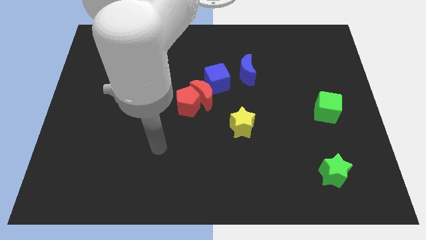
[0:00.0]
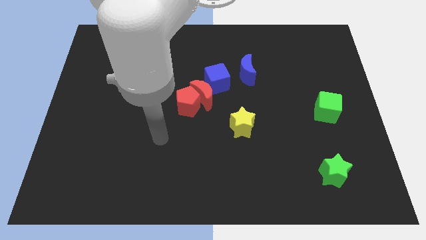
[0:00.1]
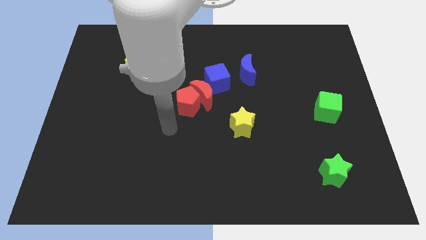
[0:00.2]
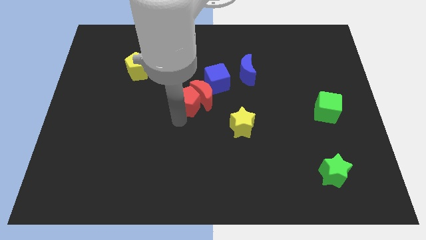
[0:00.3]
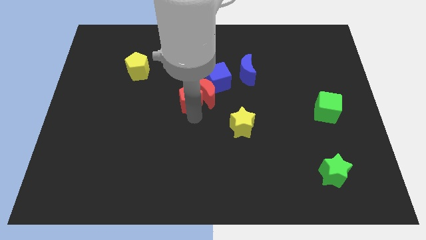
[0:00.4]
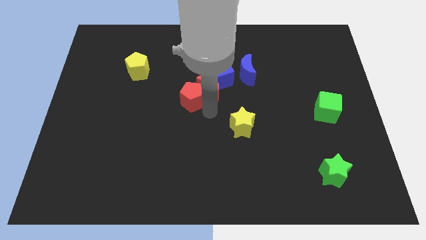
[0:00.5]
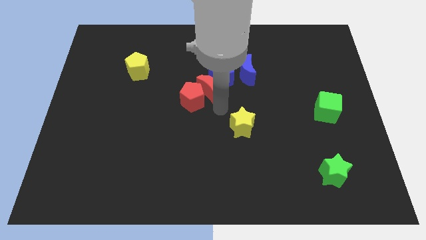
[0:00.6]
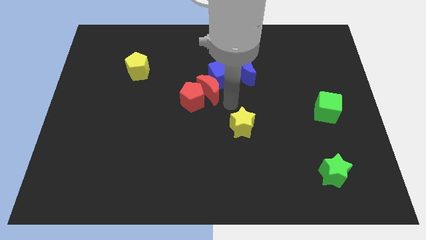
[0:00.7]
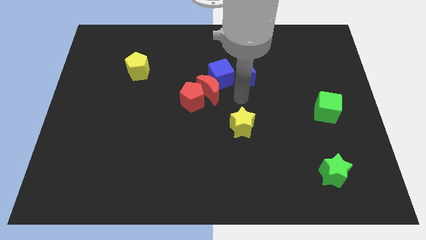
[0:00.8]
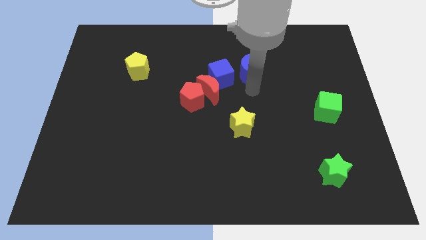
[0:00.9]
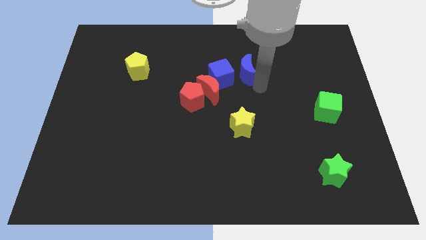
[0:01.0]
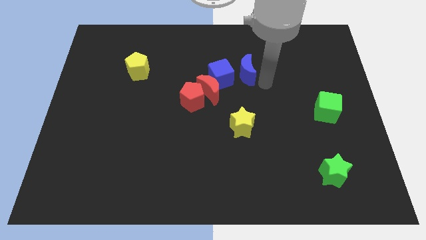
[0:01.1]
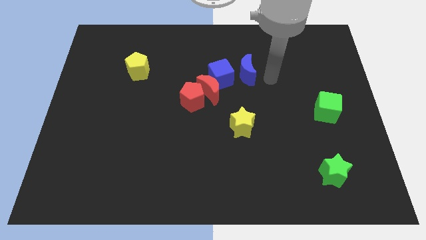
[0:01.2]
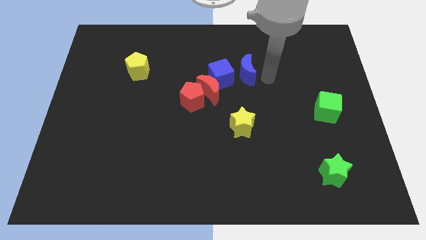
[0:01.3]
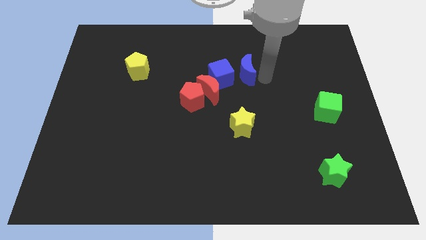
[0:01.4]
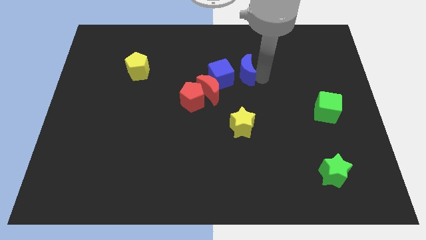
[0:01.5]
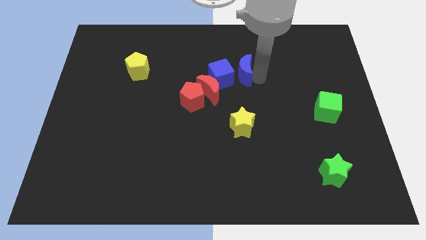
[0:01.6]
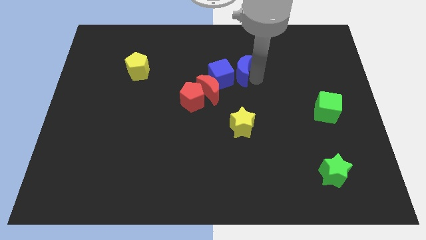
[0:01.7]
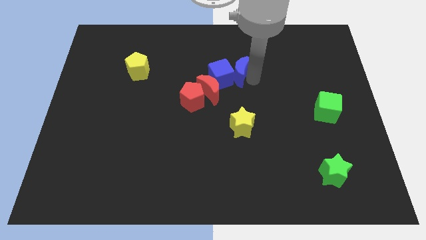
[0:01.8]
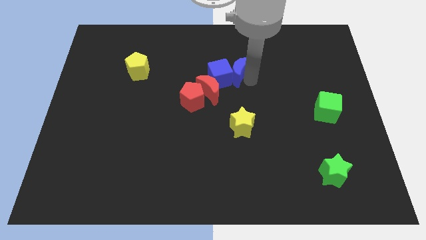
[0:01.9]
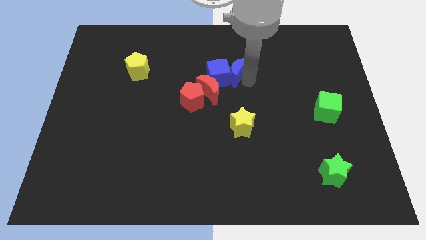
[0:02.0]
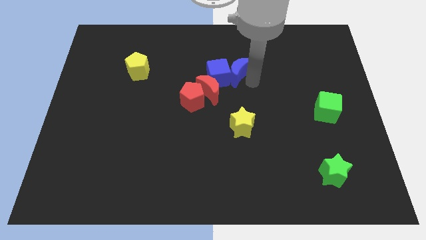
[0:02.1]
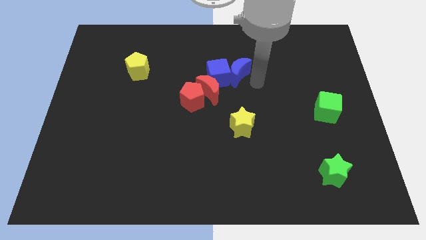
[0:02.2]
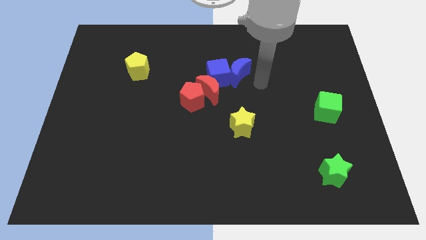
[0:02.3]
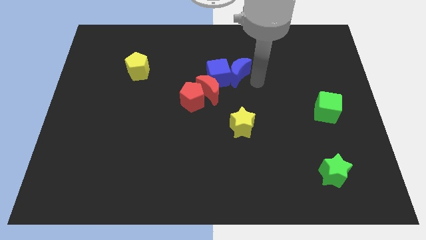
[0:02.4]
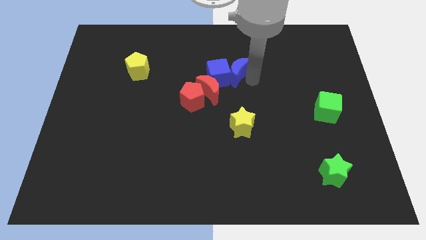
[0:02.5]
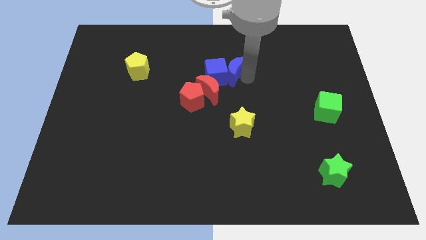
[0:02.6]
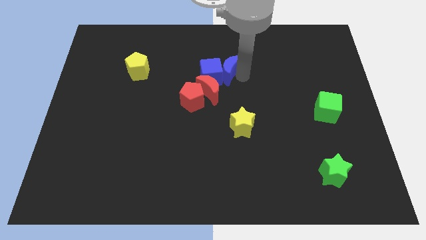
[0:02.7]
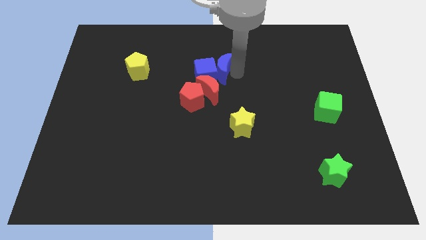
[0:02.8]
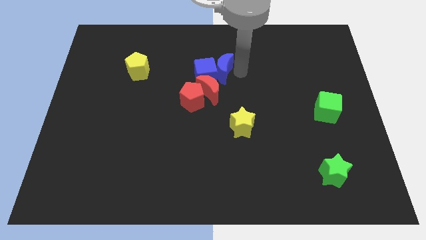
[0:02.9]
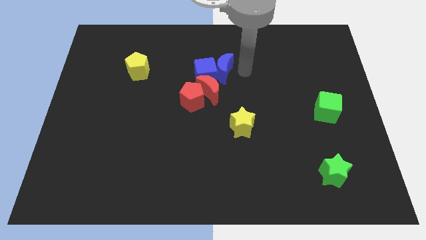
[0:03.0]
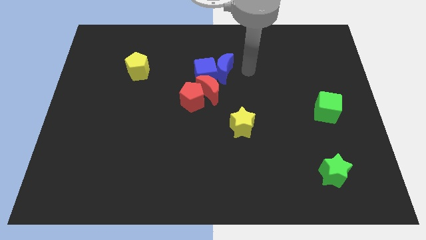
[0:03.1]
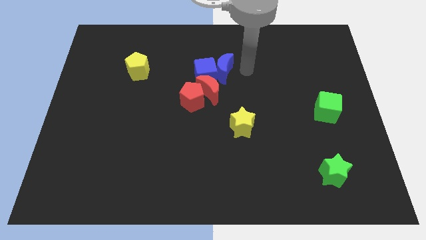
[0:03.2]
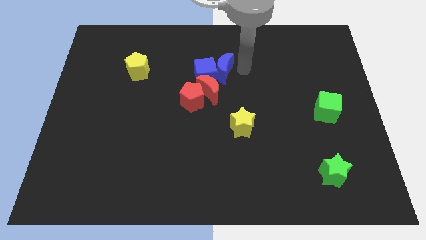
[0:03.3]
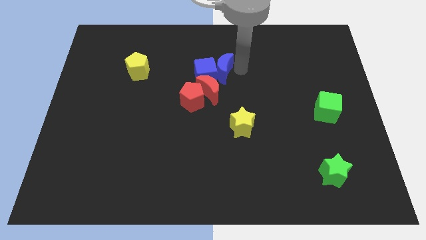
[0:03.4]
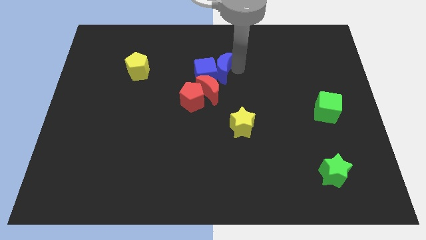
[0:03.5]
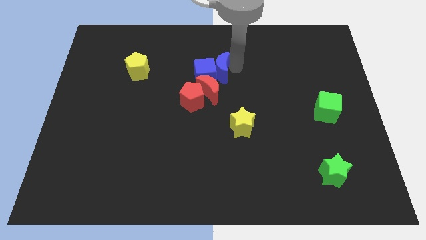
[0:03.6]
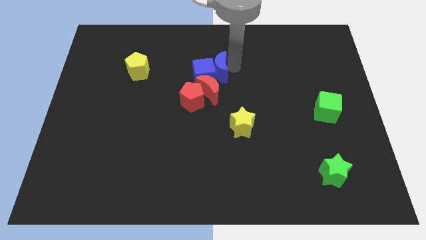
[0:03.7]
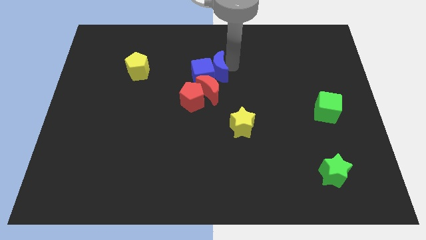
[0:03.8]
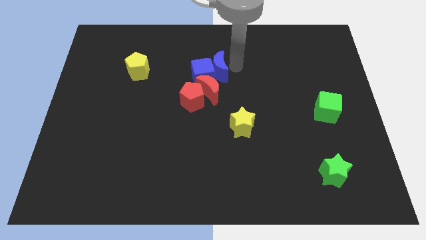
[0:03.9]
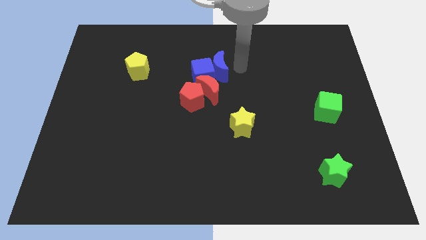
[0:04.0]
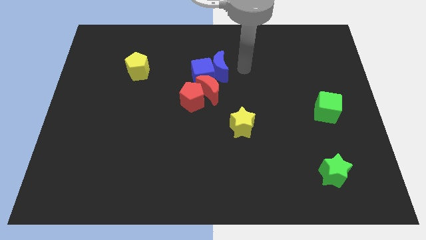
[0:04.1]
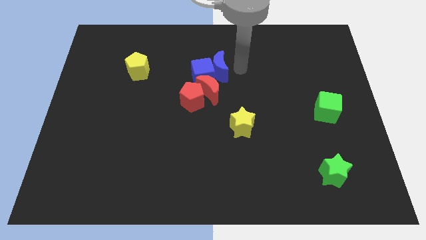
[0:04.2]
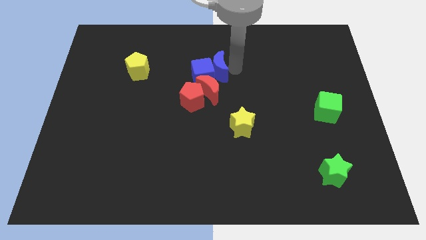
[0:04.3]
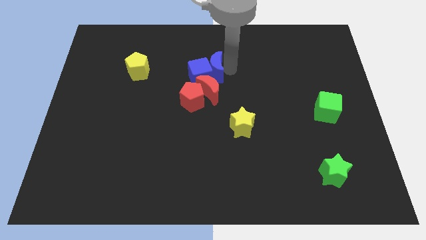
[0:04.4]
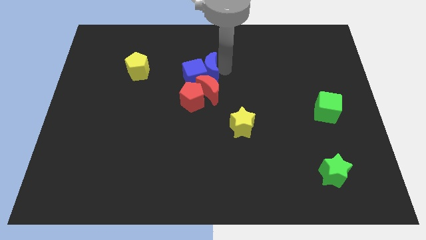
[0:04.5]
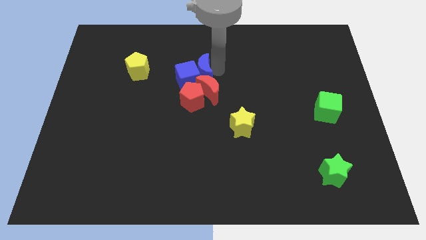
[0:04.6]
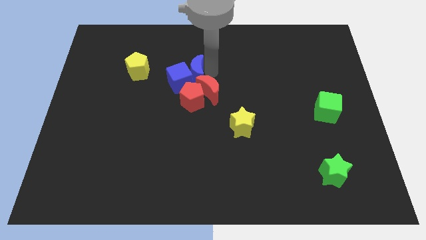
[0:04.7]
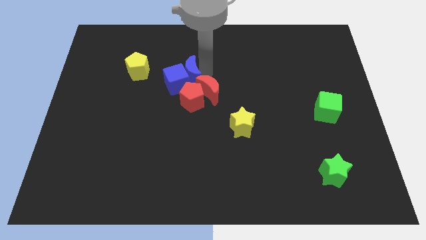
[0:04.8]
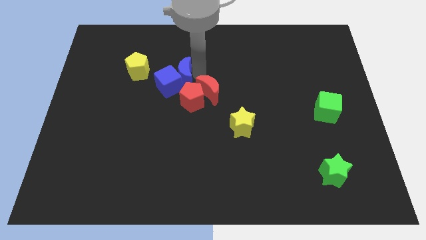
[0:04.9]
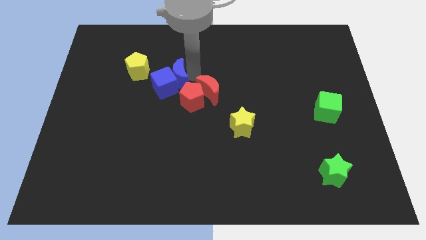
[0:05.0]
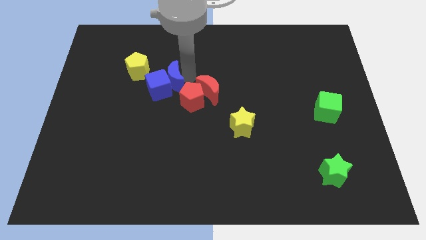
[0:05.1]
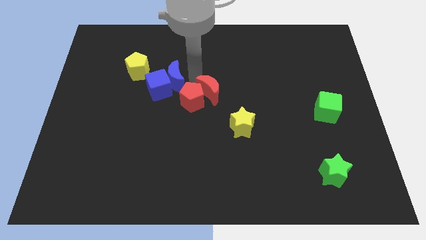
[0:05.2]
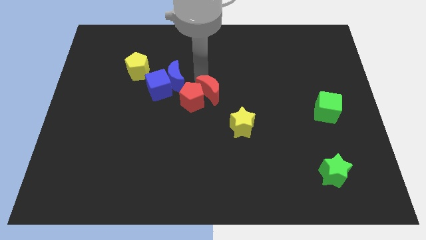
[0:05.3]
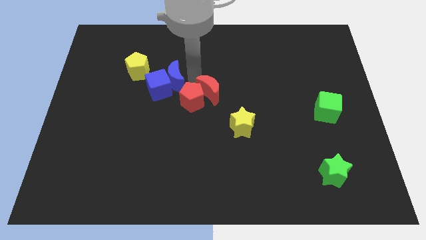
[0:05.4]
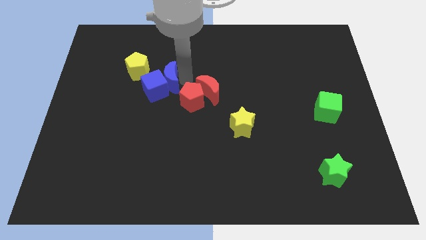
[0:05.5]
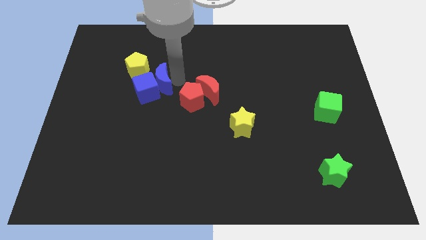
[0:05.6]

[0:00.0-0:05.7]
move the blue moon to the left

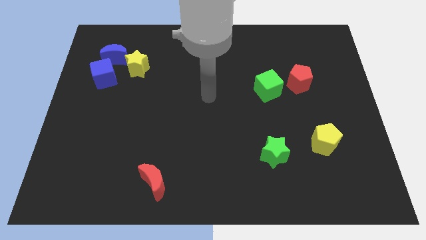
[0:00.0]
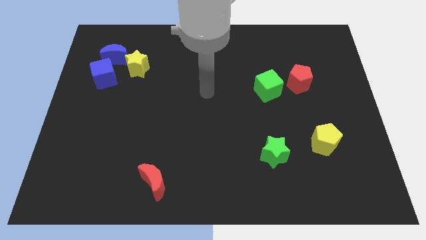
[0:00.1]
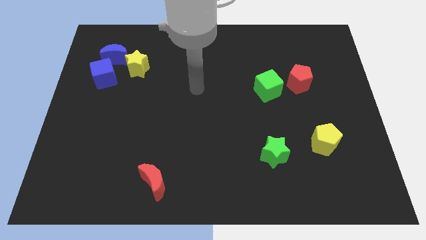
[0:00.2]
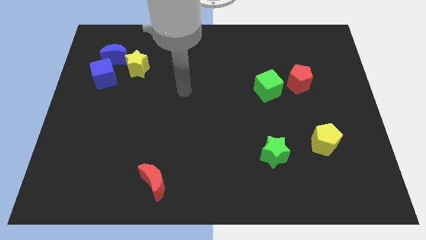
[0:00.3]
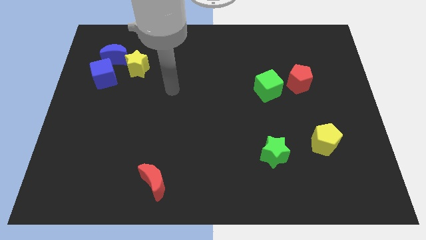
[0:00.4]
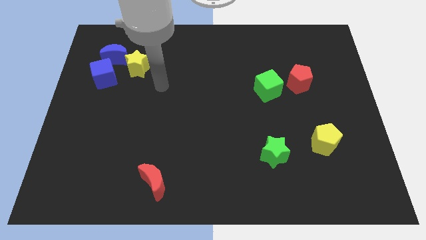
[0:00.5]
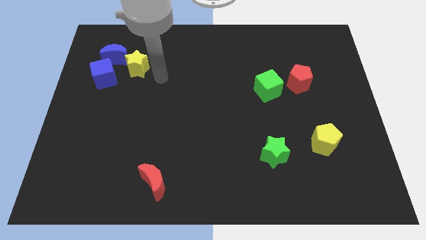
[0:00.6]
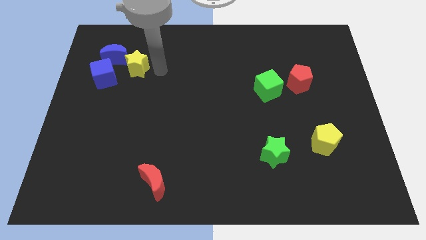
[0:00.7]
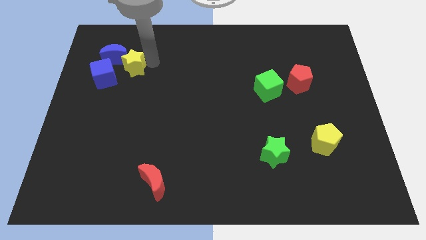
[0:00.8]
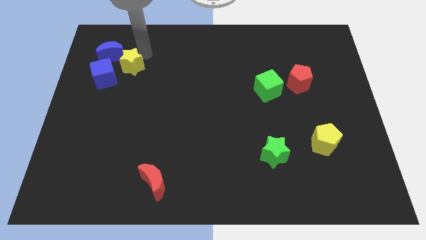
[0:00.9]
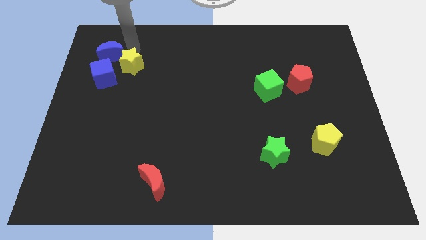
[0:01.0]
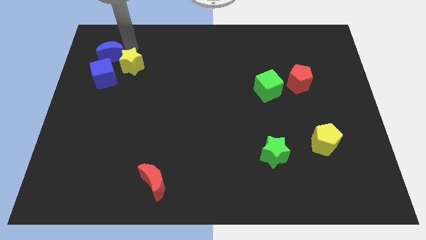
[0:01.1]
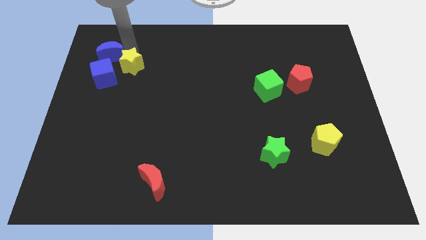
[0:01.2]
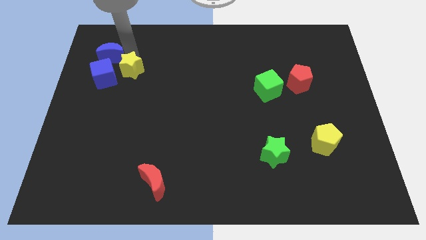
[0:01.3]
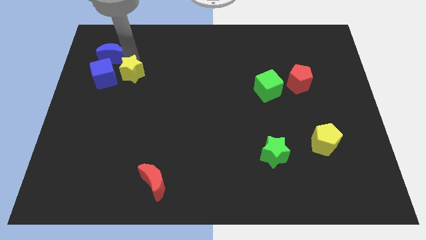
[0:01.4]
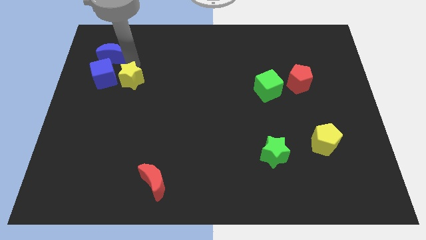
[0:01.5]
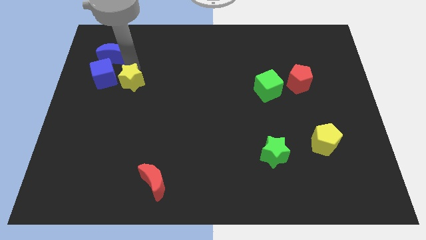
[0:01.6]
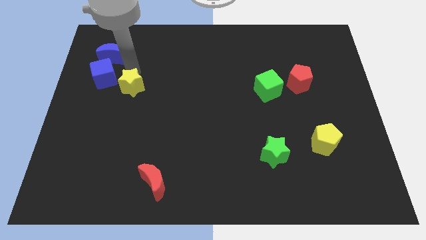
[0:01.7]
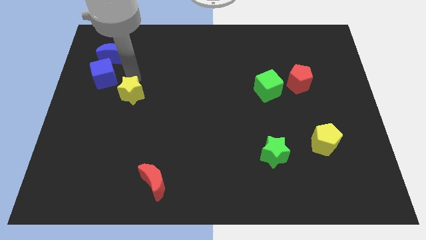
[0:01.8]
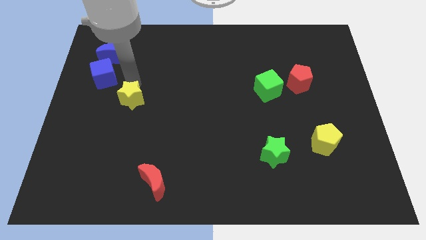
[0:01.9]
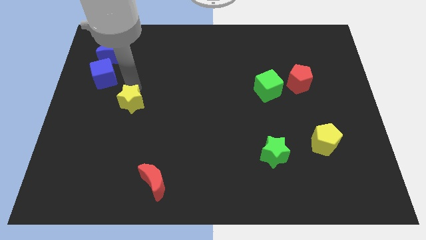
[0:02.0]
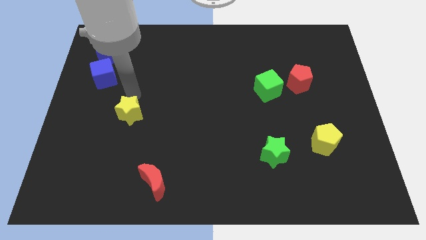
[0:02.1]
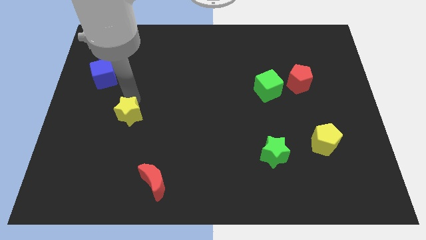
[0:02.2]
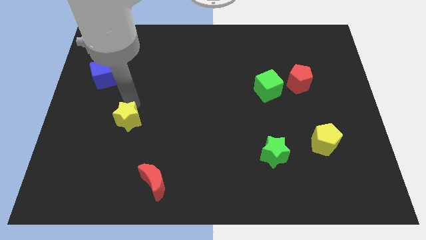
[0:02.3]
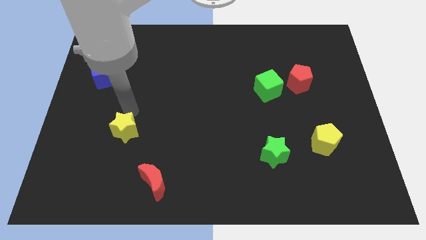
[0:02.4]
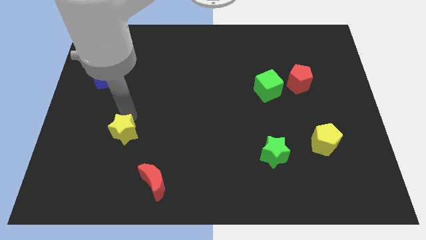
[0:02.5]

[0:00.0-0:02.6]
slide the yellow star downwards
